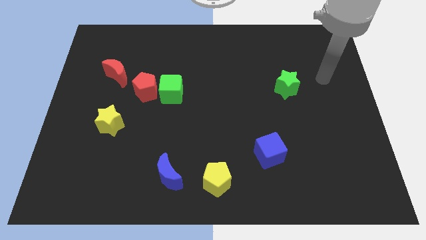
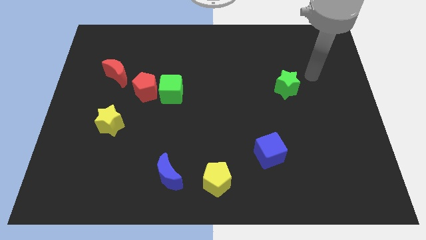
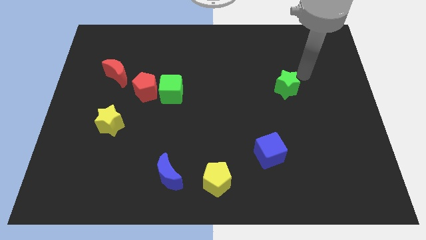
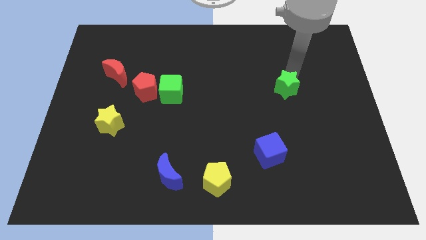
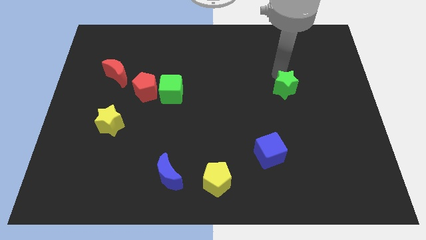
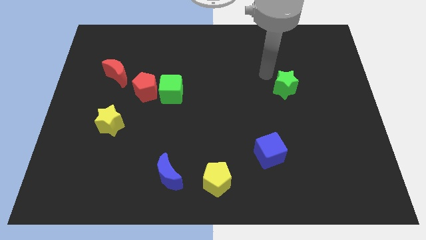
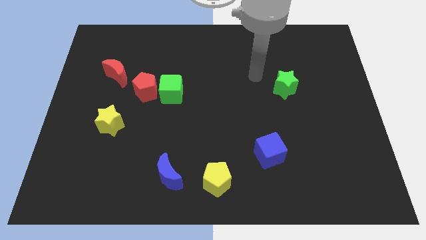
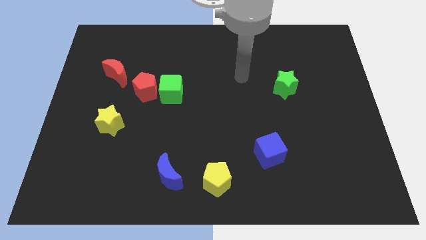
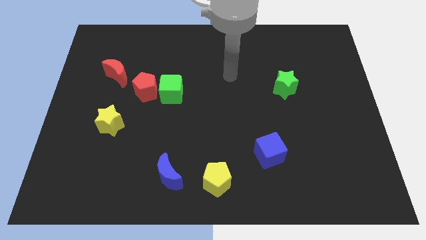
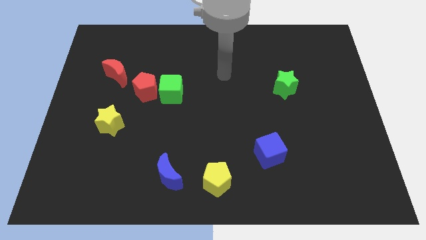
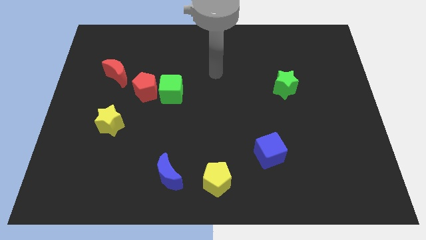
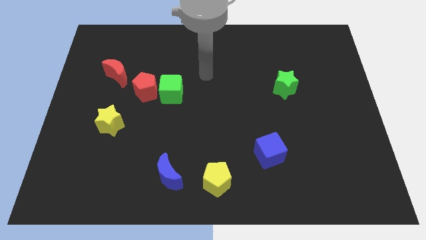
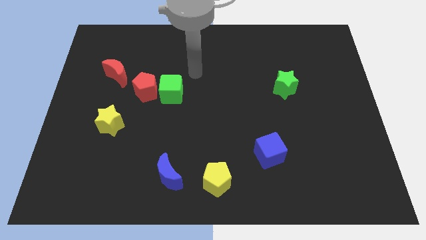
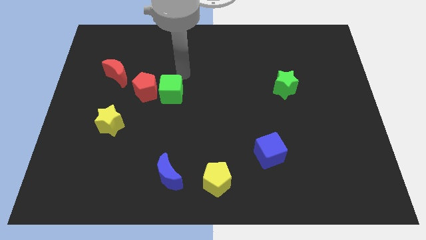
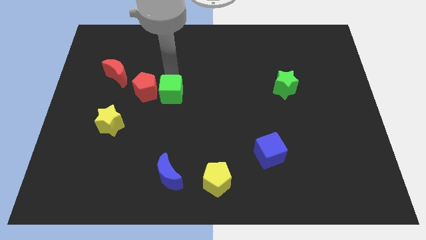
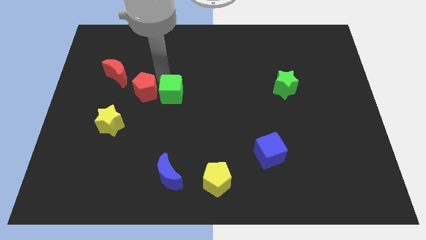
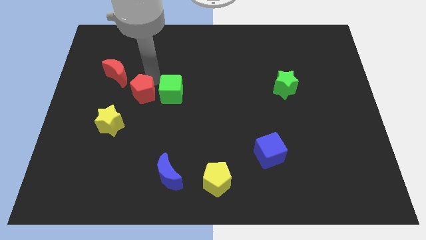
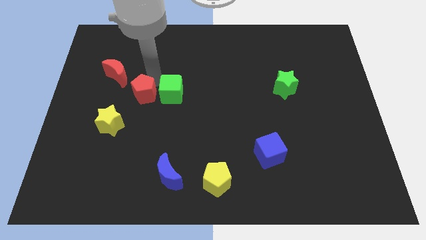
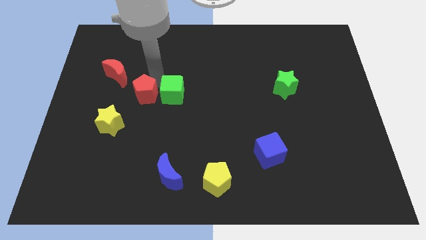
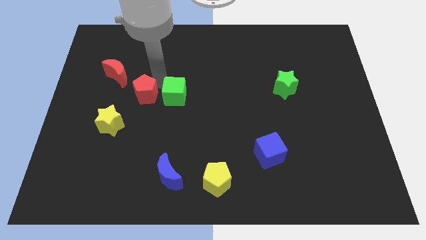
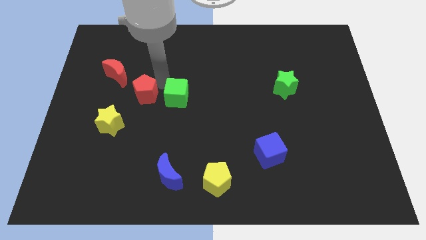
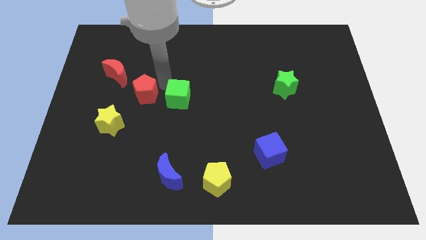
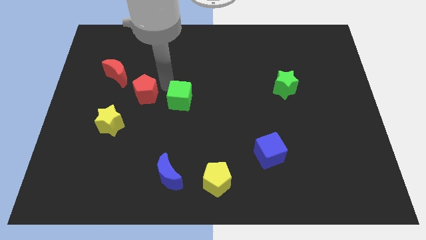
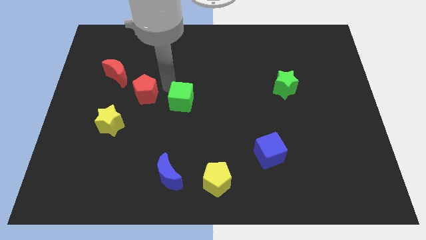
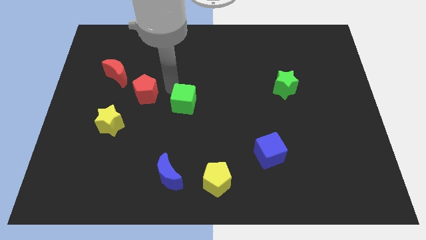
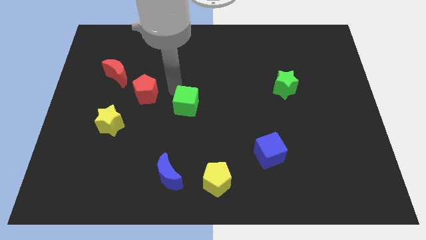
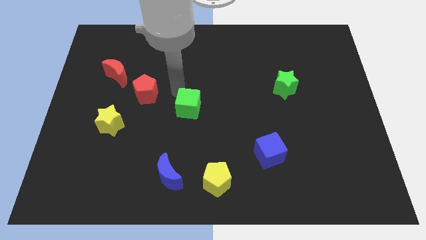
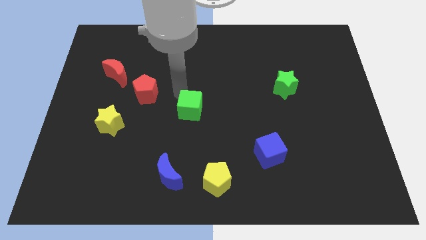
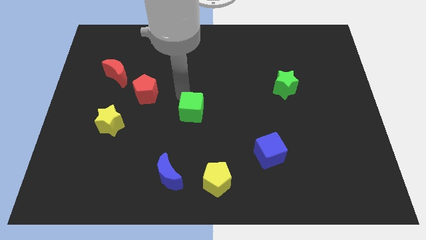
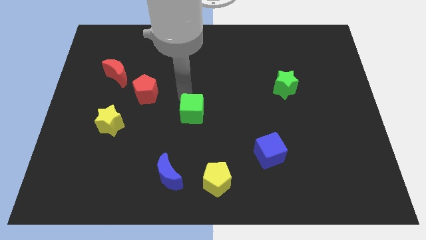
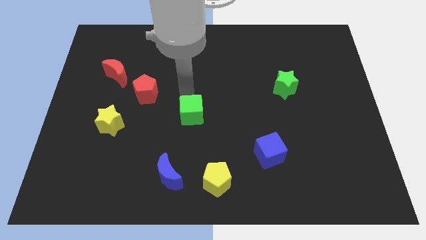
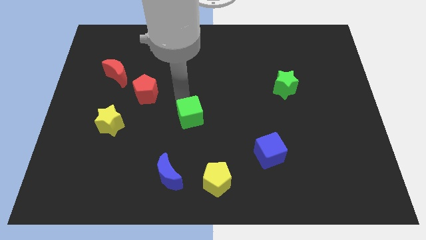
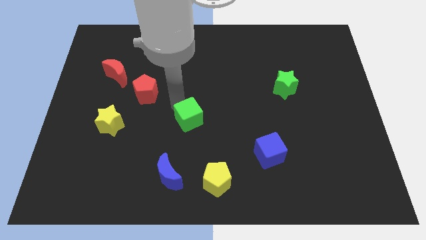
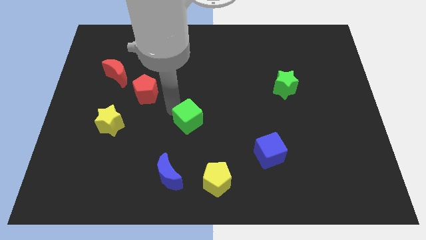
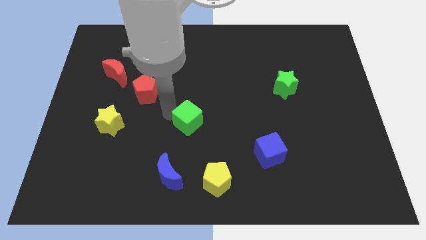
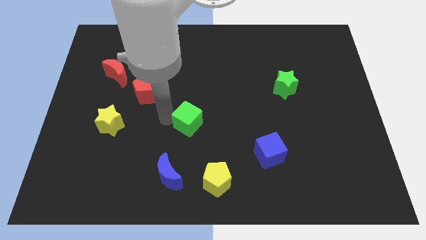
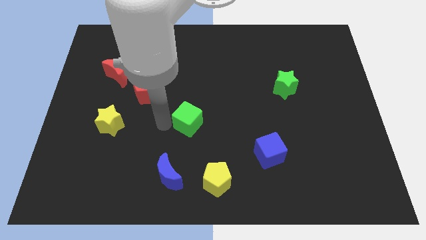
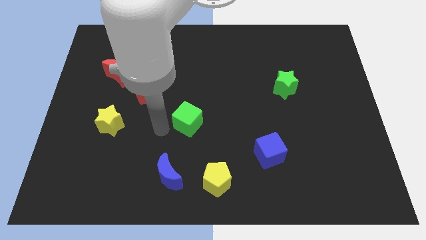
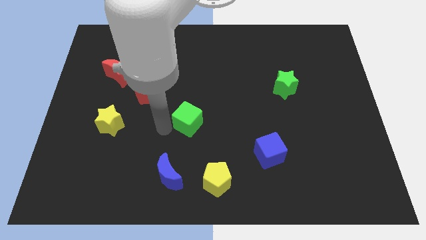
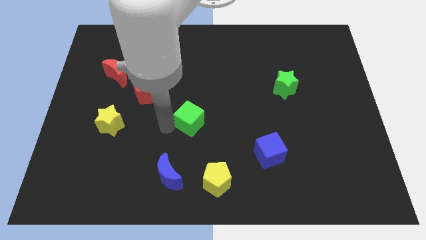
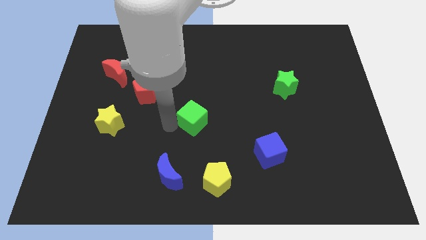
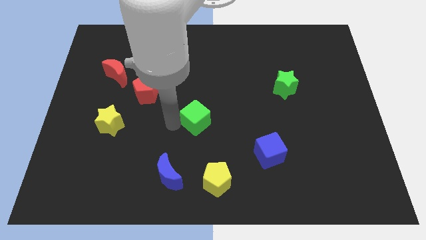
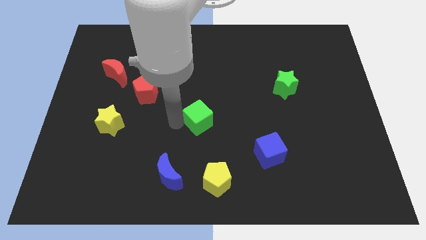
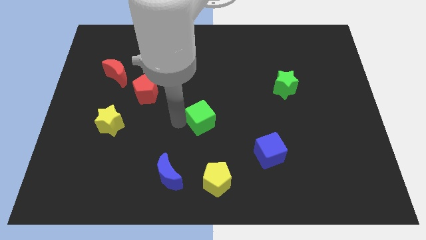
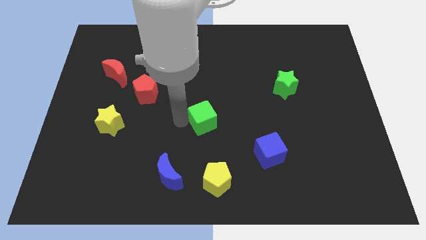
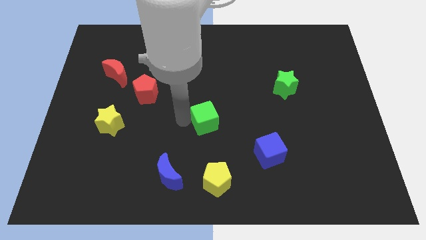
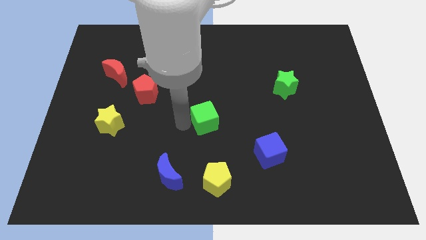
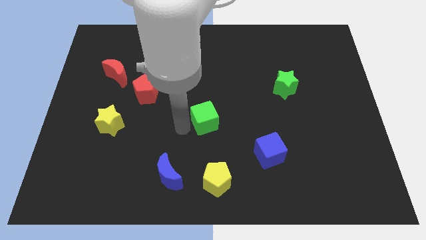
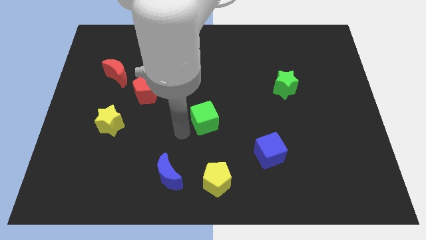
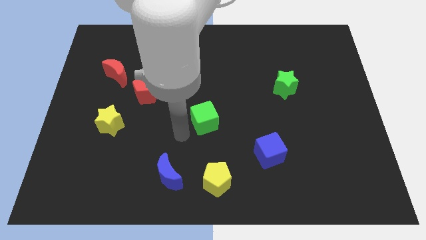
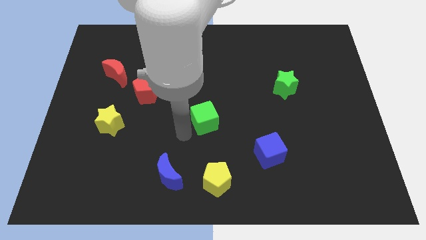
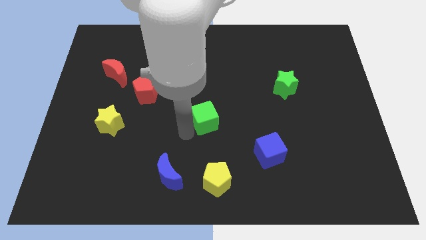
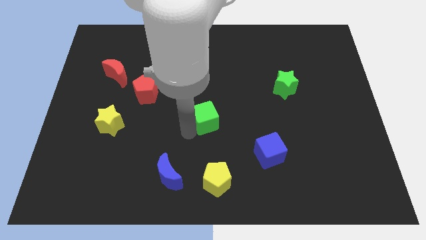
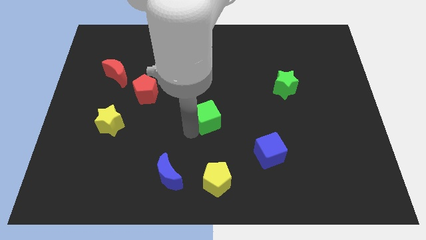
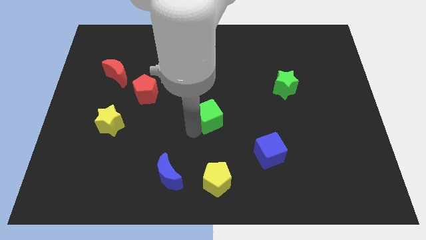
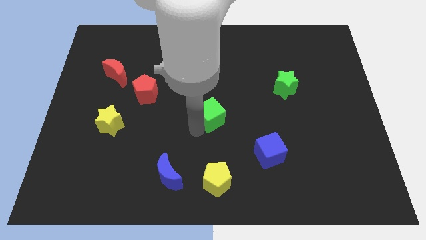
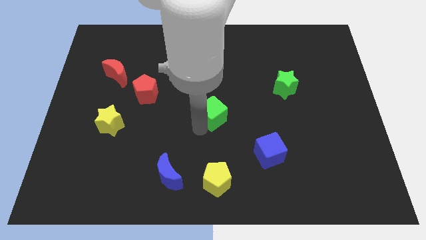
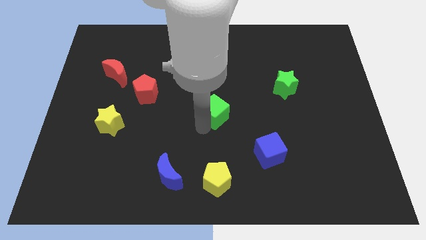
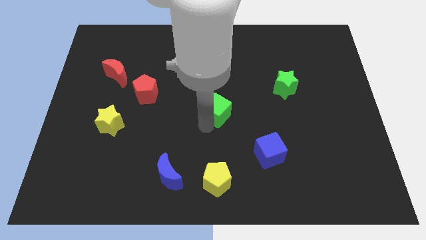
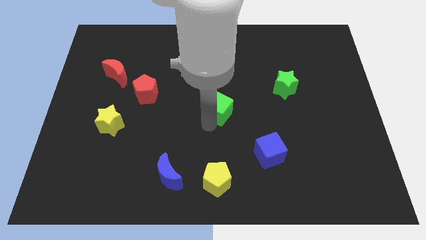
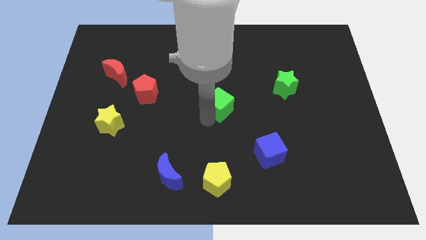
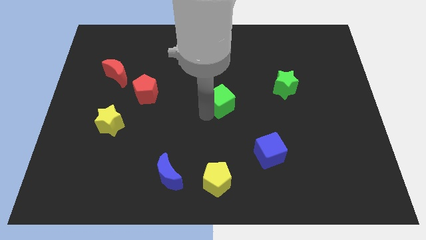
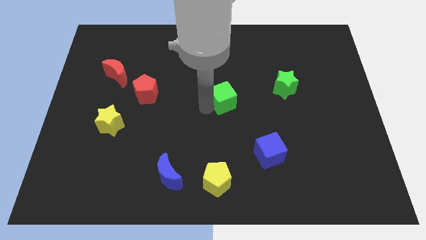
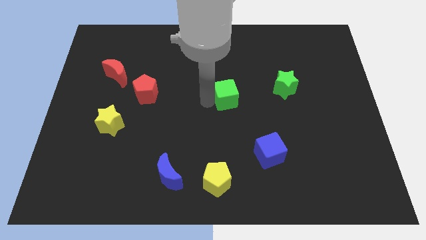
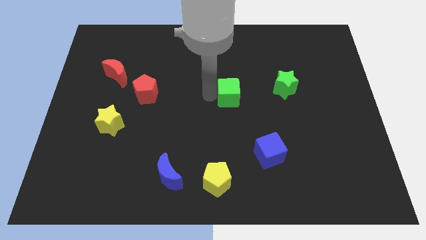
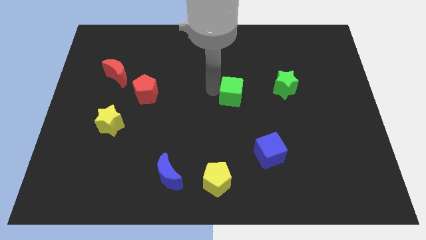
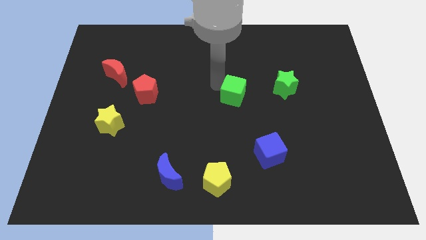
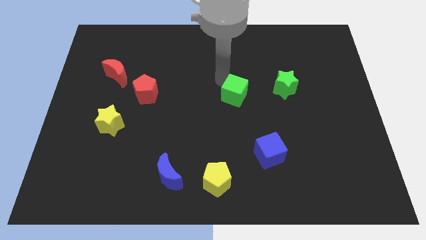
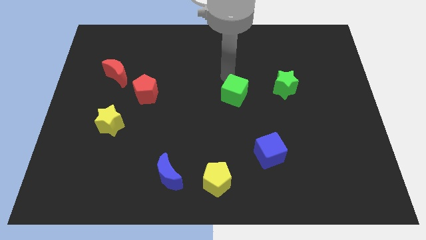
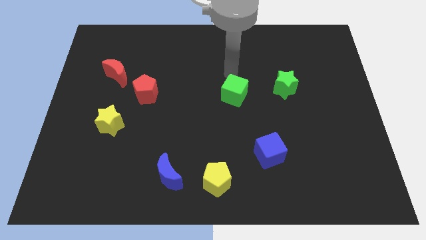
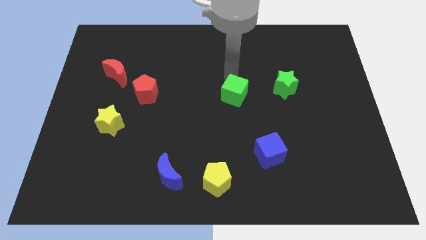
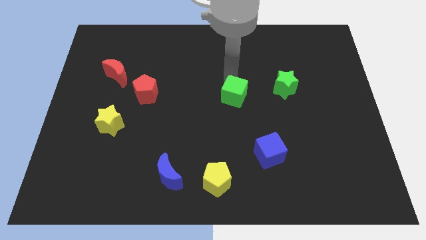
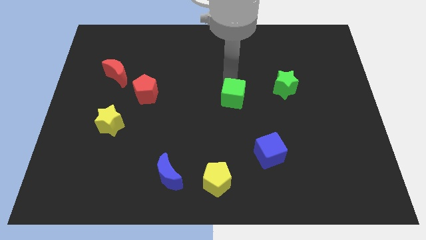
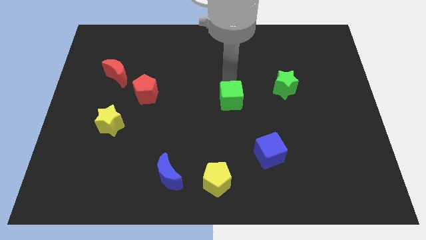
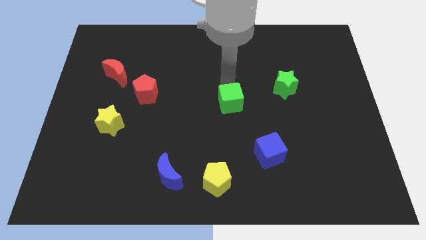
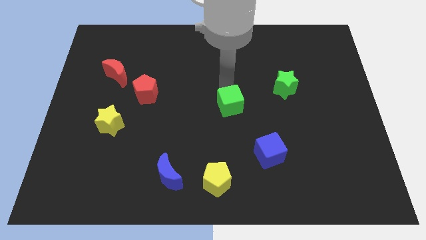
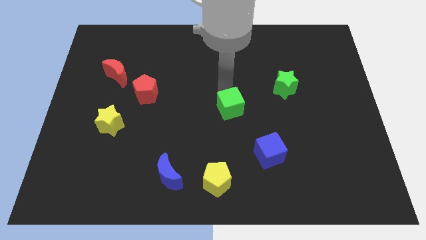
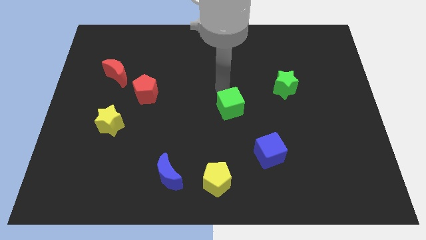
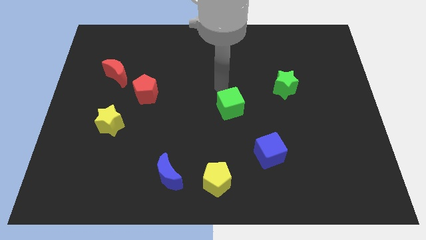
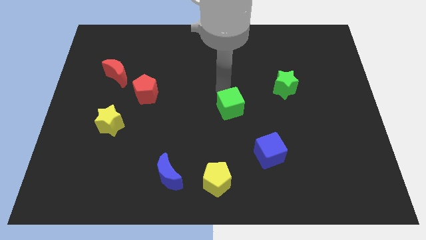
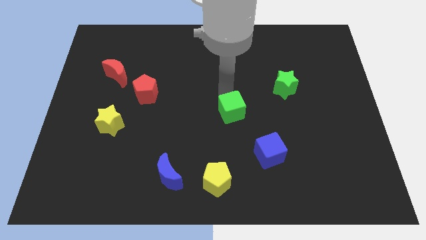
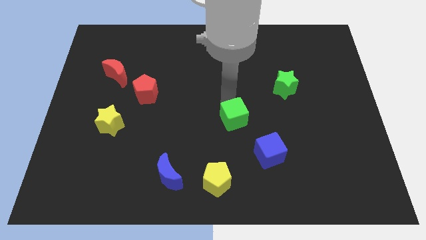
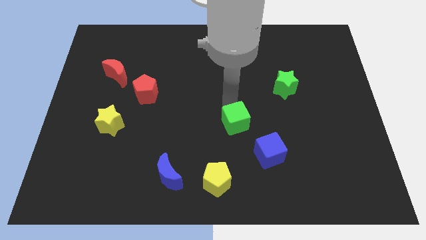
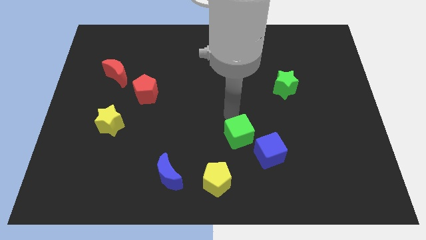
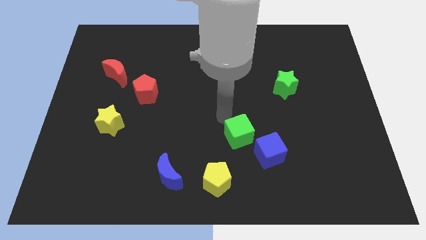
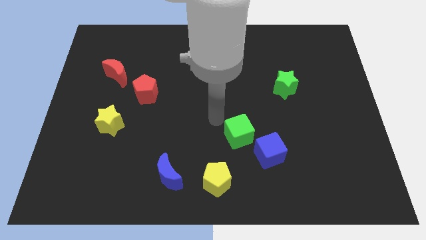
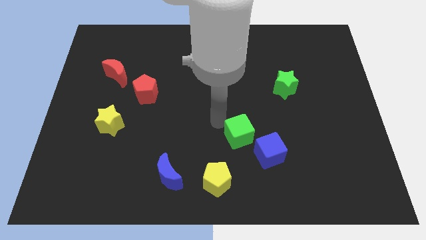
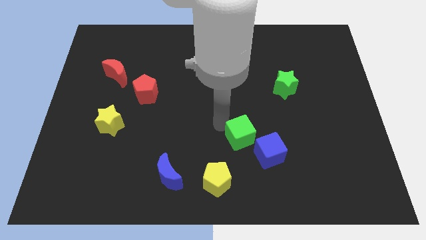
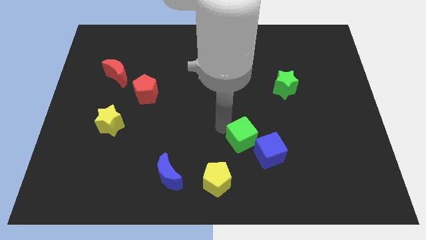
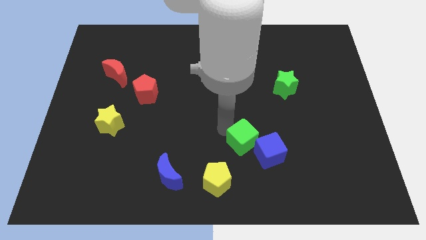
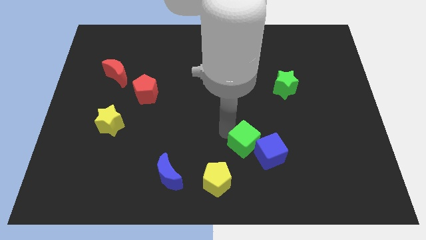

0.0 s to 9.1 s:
put the green cube towards the blue cube
